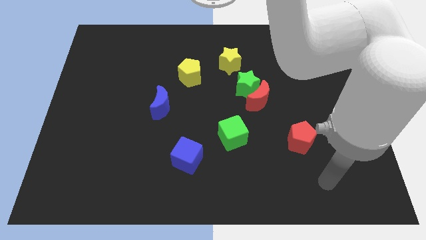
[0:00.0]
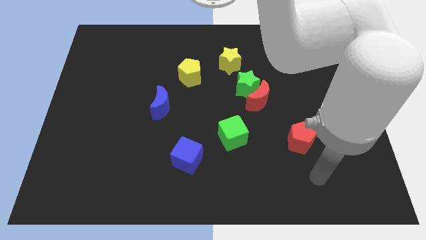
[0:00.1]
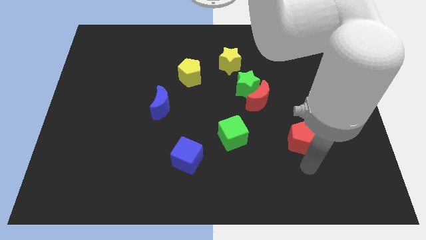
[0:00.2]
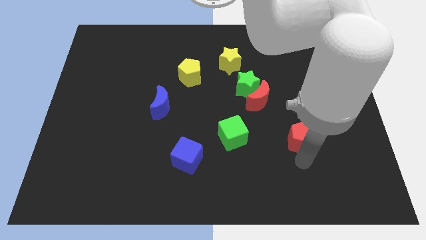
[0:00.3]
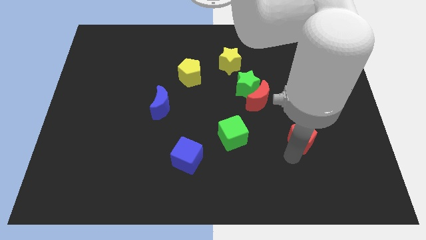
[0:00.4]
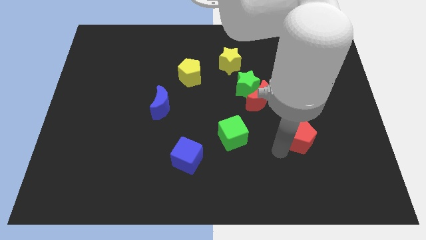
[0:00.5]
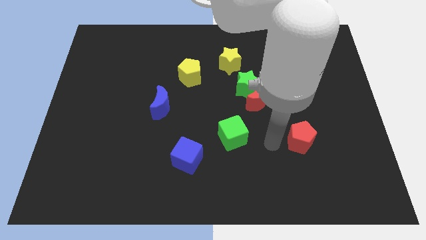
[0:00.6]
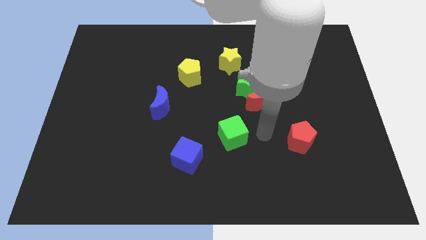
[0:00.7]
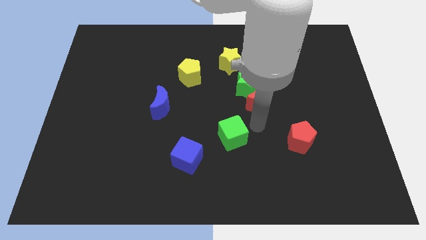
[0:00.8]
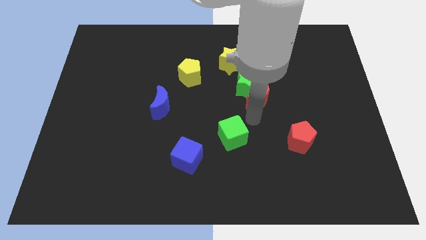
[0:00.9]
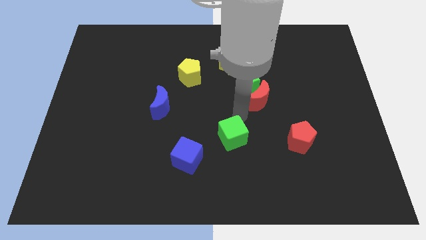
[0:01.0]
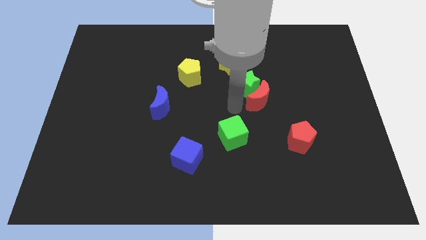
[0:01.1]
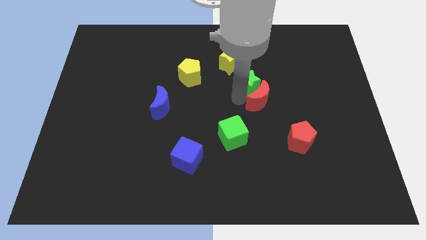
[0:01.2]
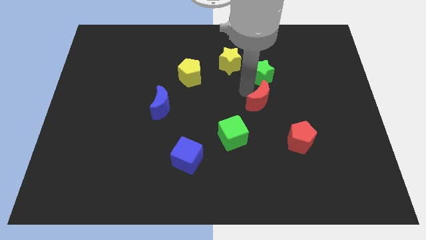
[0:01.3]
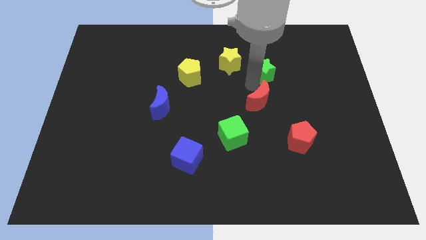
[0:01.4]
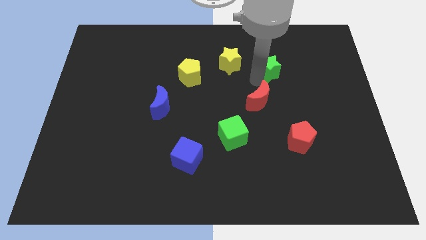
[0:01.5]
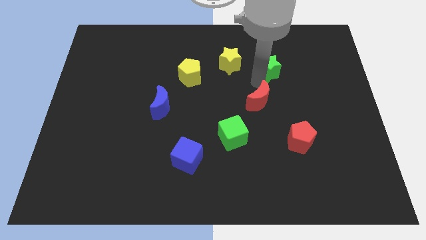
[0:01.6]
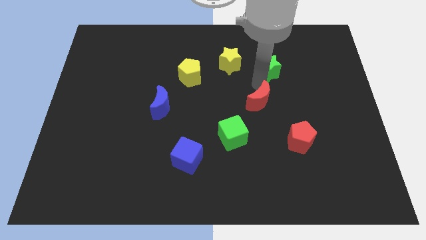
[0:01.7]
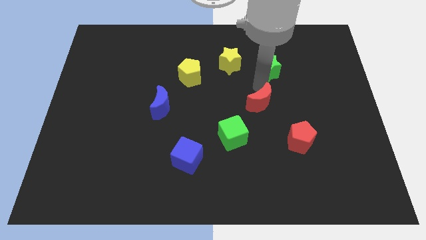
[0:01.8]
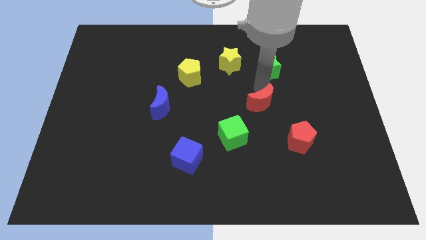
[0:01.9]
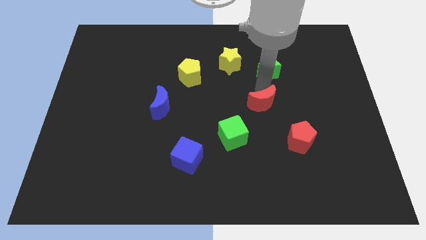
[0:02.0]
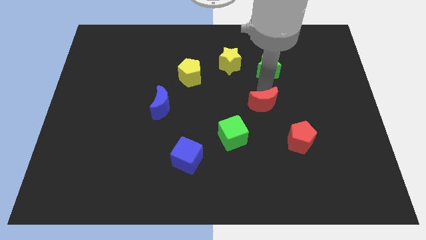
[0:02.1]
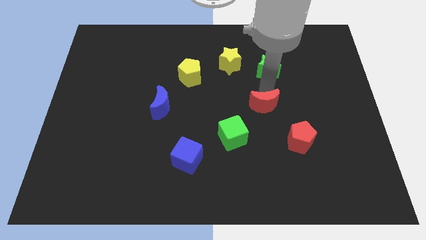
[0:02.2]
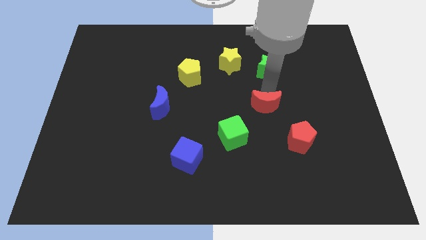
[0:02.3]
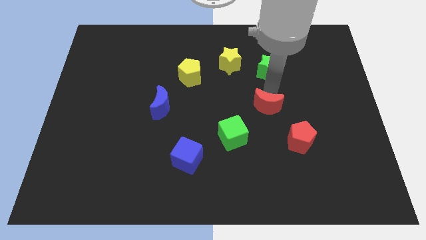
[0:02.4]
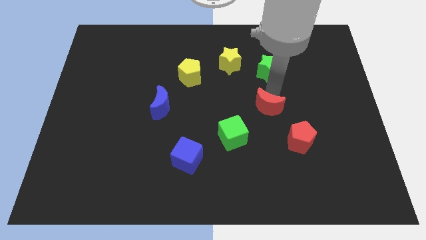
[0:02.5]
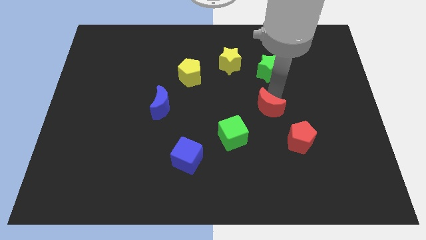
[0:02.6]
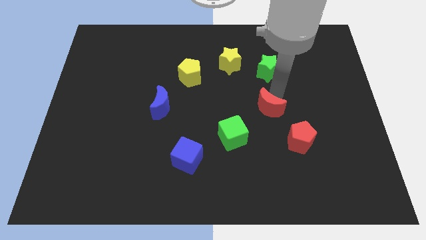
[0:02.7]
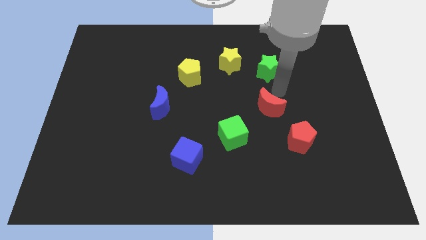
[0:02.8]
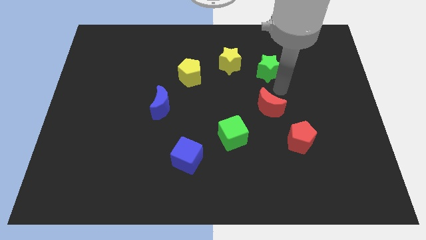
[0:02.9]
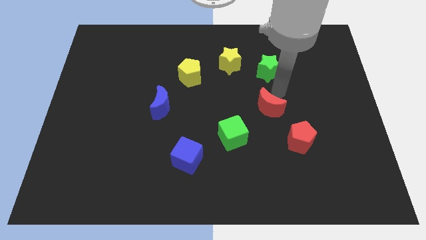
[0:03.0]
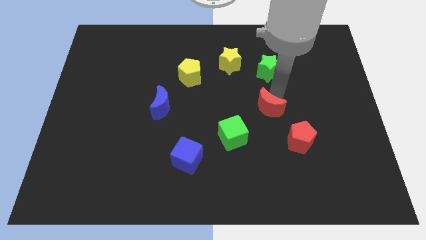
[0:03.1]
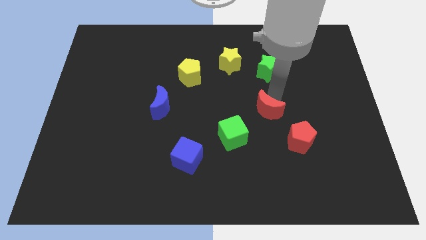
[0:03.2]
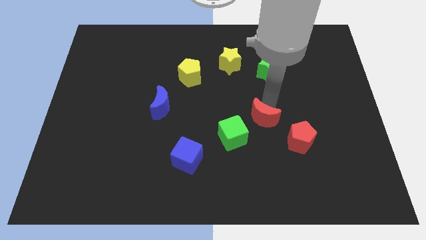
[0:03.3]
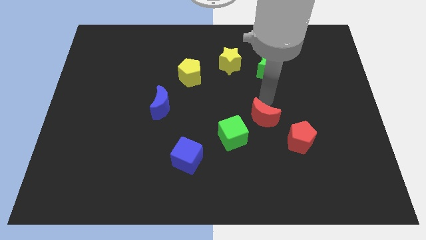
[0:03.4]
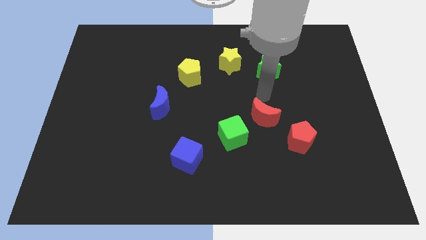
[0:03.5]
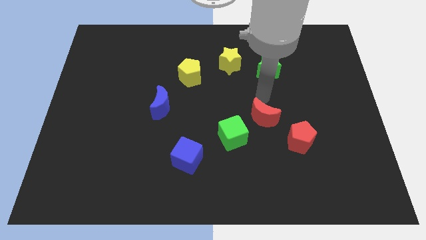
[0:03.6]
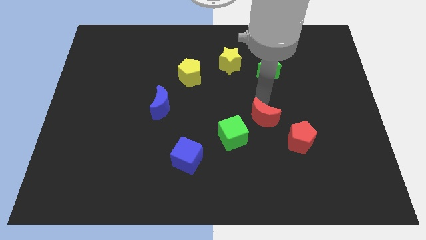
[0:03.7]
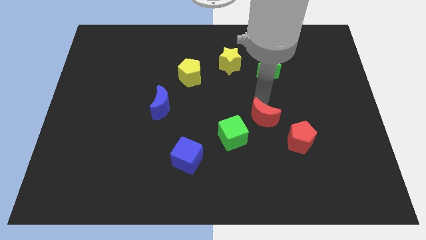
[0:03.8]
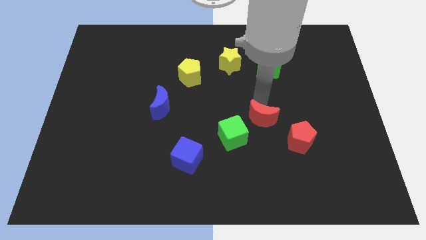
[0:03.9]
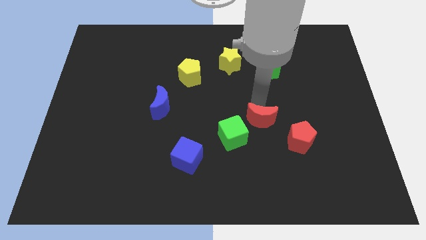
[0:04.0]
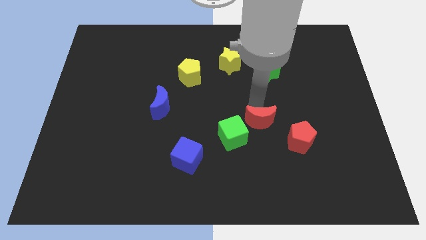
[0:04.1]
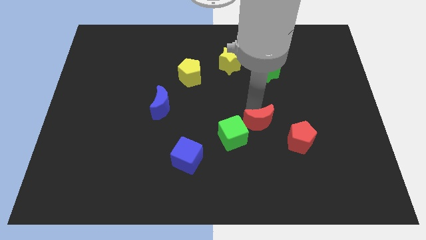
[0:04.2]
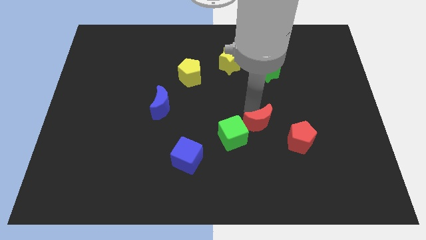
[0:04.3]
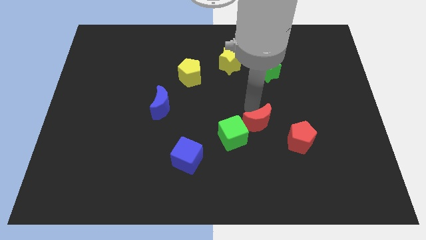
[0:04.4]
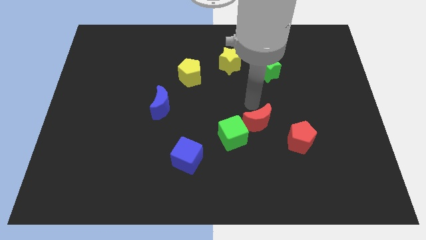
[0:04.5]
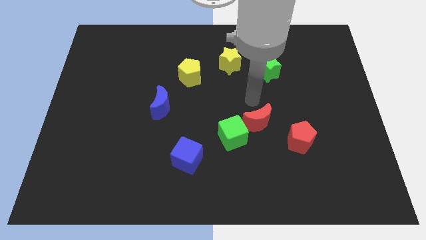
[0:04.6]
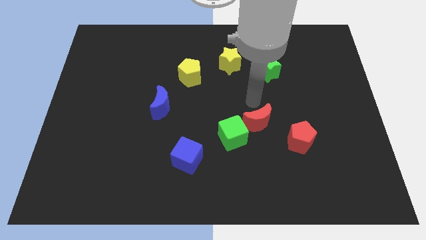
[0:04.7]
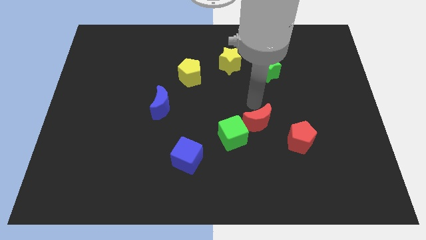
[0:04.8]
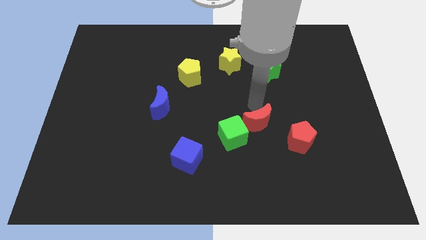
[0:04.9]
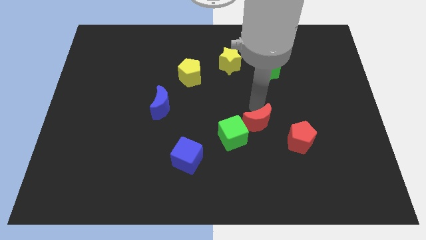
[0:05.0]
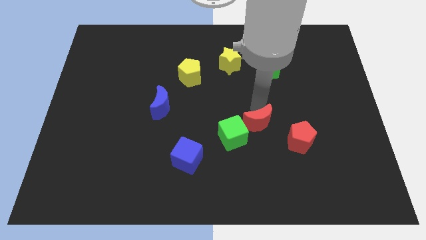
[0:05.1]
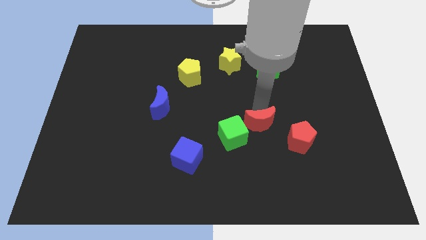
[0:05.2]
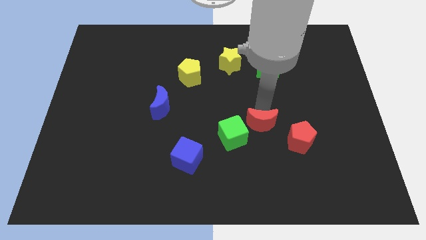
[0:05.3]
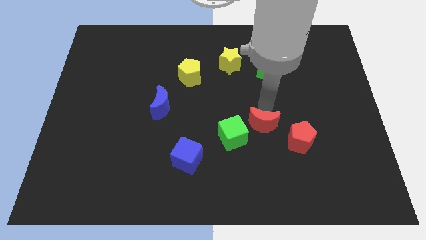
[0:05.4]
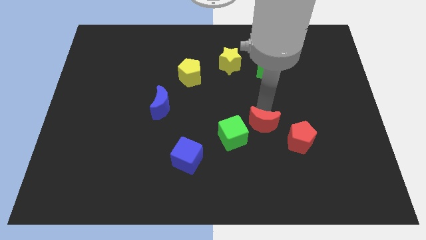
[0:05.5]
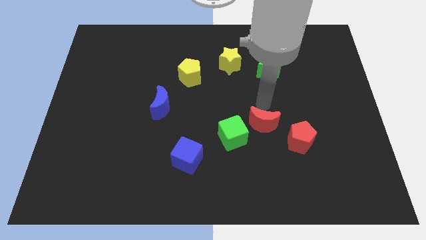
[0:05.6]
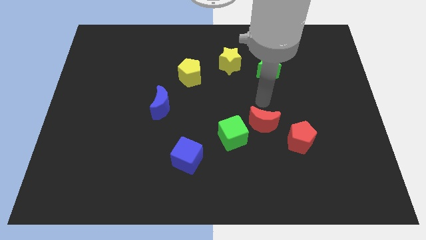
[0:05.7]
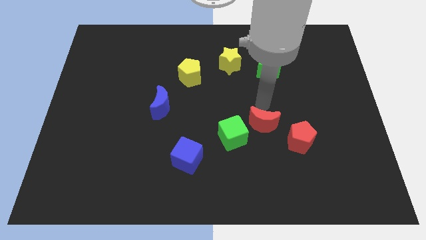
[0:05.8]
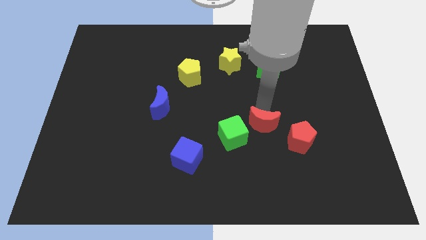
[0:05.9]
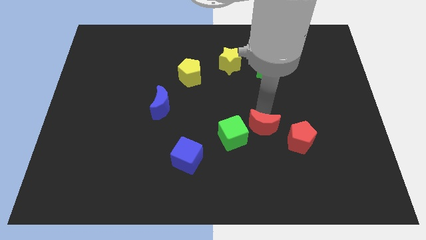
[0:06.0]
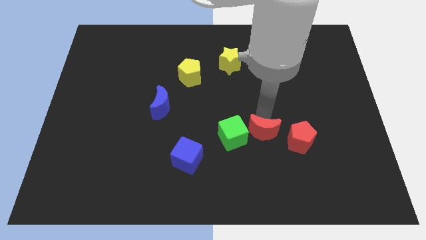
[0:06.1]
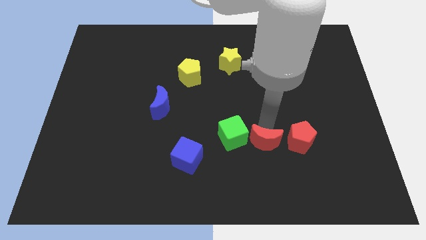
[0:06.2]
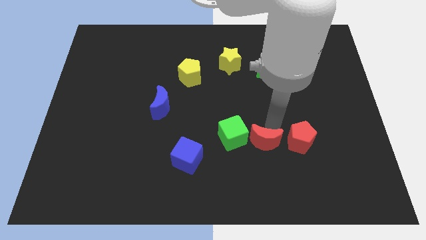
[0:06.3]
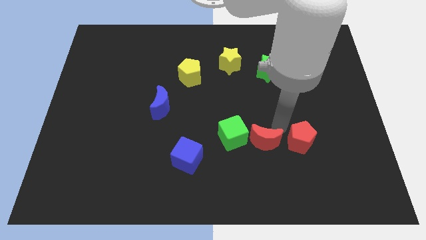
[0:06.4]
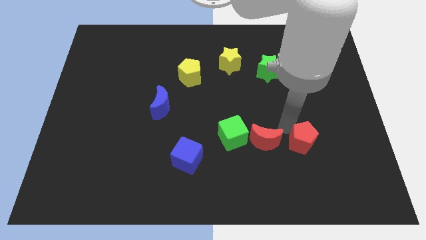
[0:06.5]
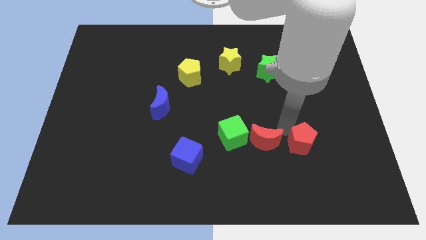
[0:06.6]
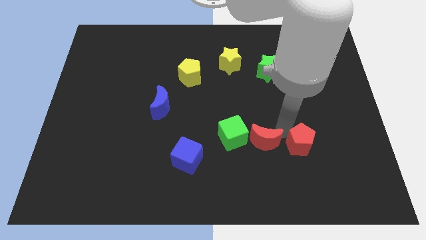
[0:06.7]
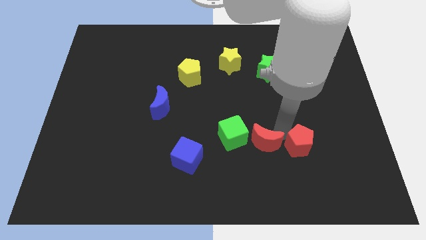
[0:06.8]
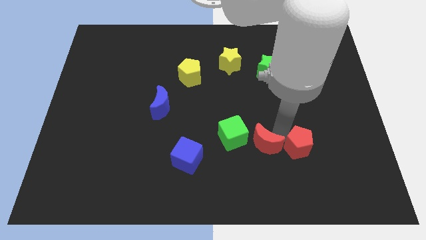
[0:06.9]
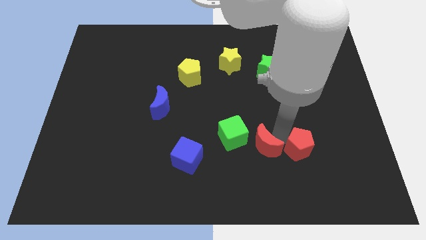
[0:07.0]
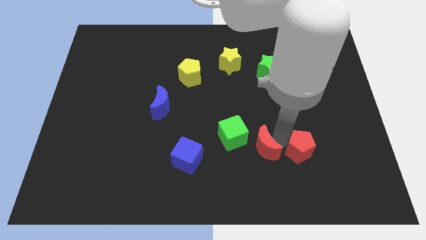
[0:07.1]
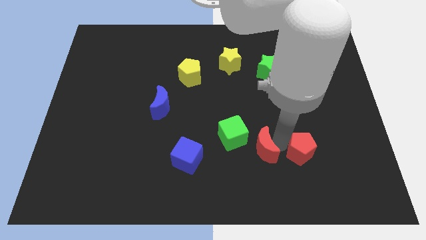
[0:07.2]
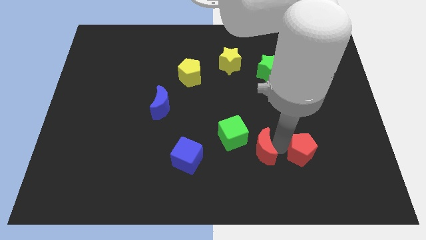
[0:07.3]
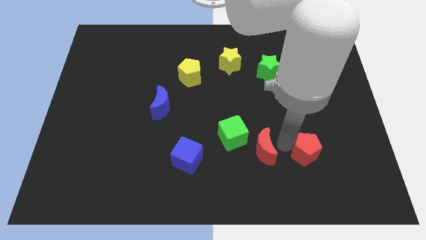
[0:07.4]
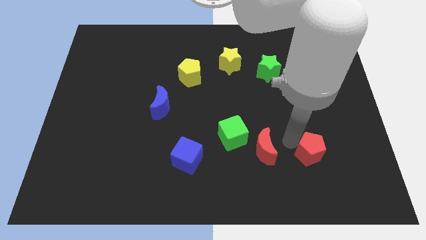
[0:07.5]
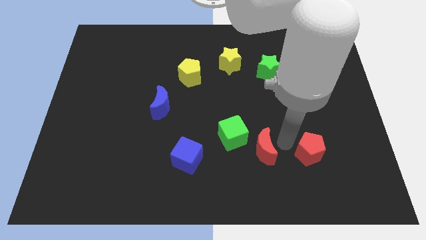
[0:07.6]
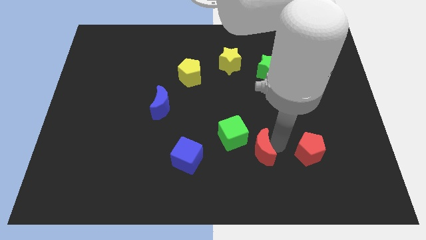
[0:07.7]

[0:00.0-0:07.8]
slide the red moon to the right side of the blue cube
